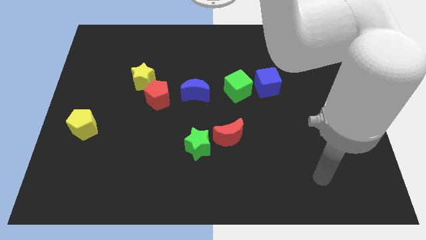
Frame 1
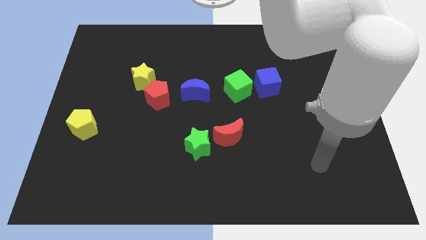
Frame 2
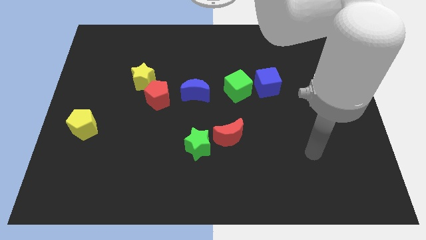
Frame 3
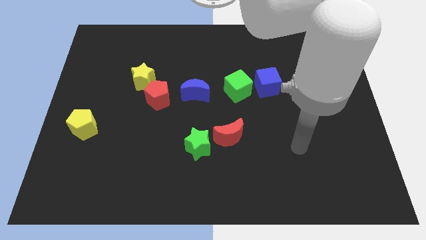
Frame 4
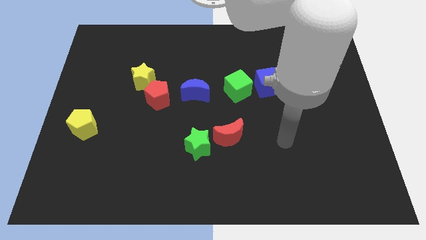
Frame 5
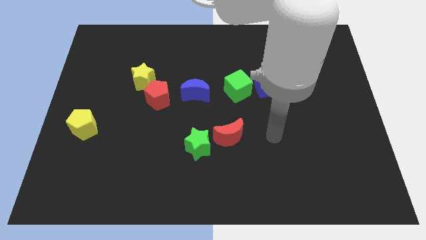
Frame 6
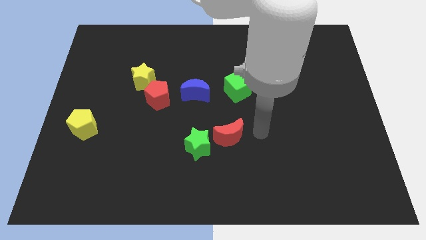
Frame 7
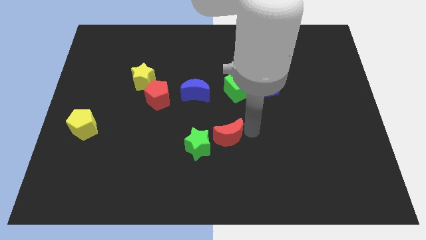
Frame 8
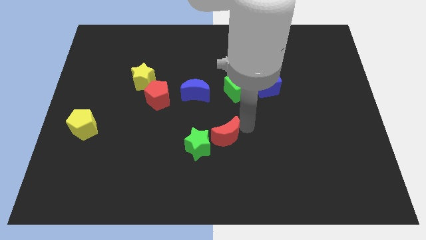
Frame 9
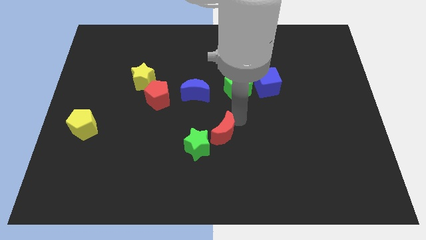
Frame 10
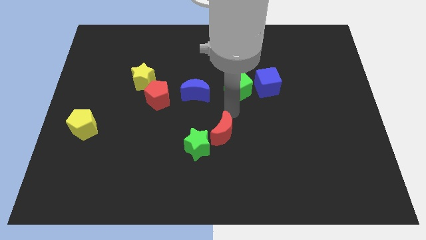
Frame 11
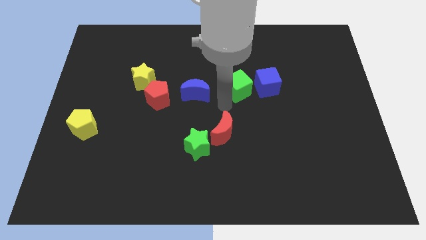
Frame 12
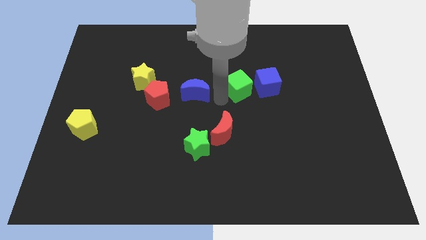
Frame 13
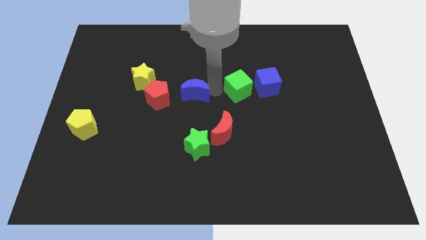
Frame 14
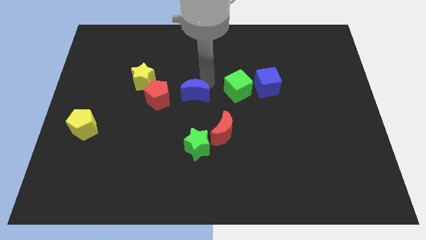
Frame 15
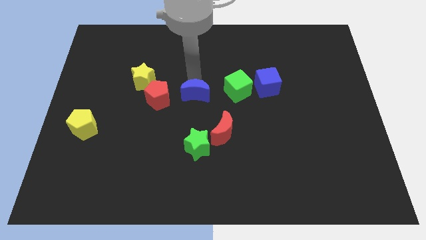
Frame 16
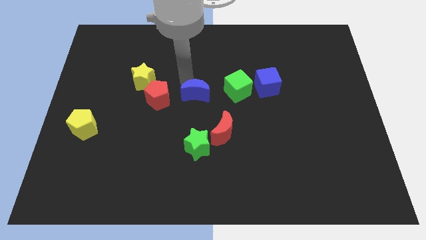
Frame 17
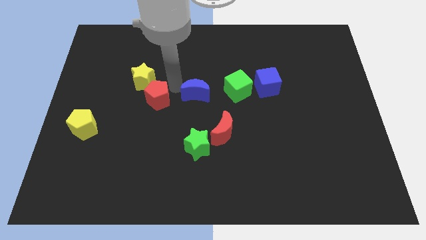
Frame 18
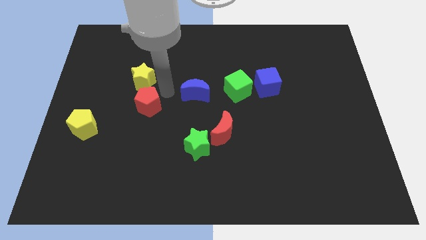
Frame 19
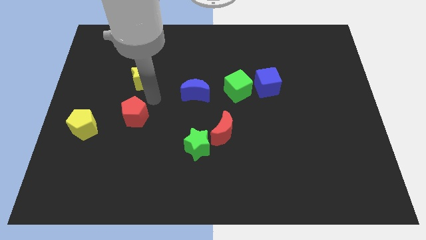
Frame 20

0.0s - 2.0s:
separate the yellow star from the red pentagon

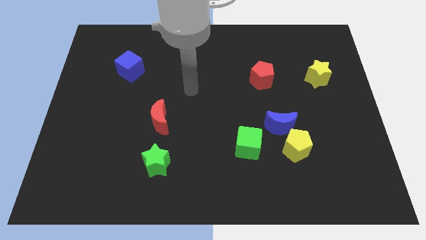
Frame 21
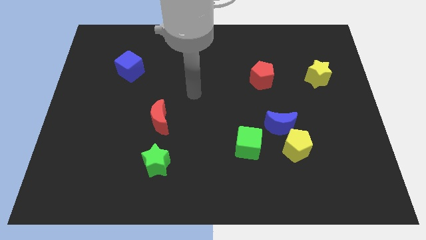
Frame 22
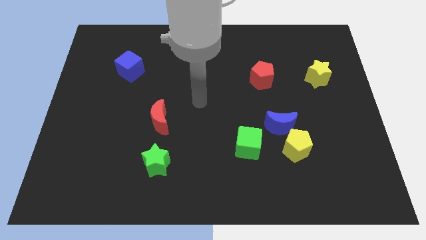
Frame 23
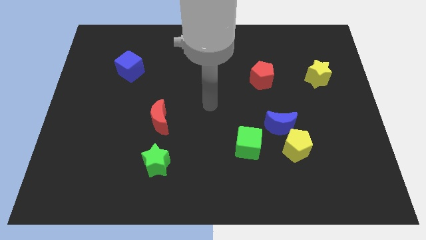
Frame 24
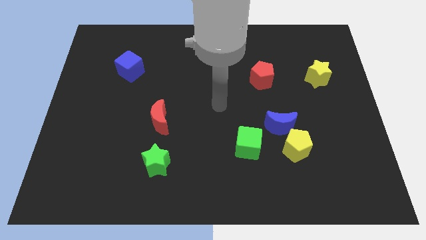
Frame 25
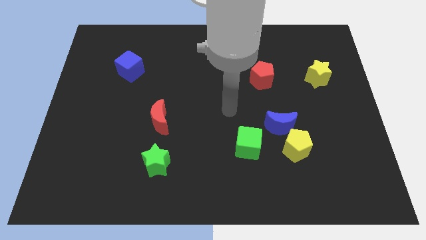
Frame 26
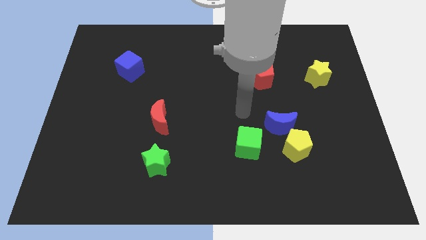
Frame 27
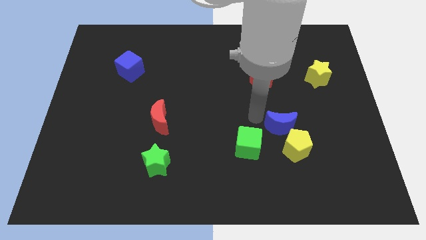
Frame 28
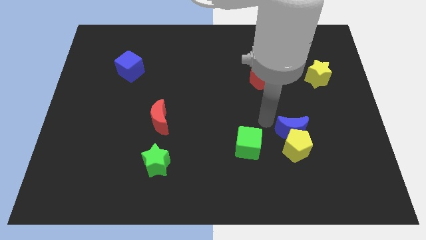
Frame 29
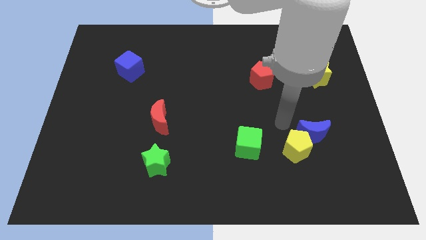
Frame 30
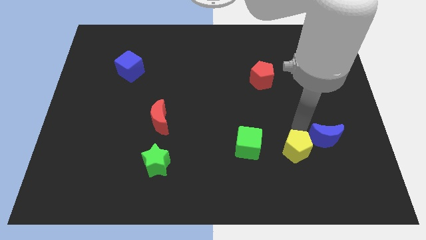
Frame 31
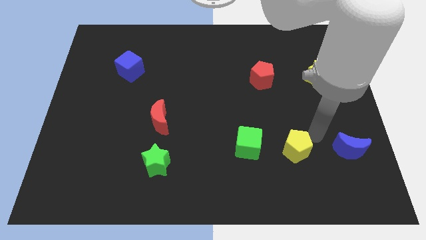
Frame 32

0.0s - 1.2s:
move the yellow pentagon away from the blue moon

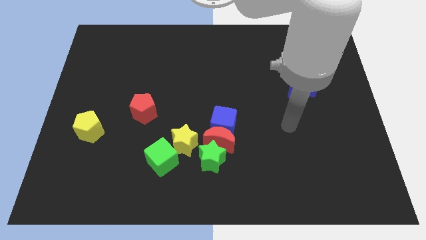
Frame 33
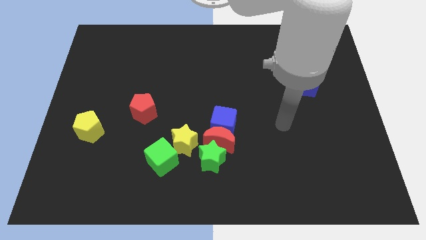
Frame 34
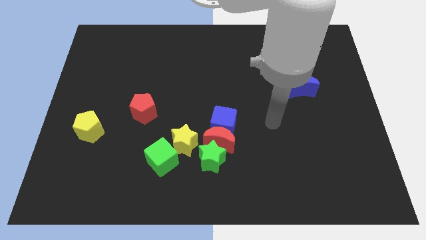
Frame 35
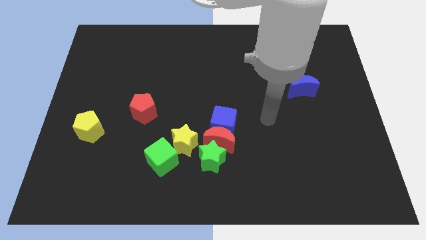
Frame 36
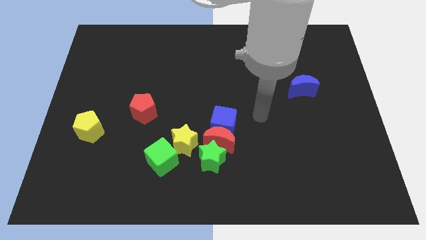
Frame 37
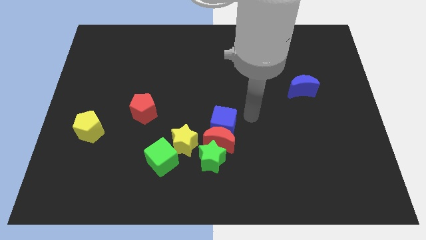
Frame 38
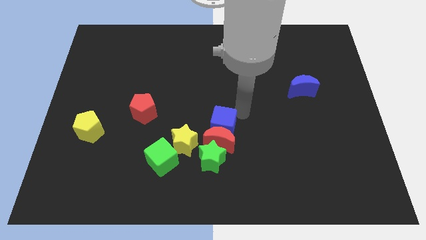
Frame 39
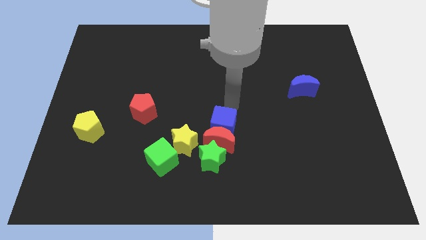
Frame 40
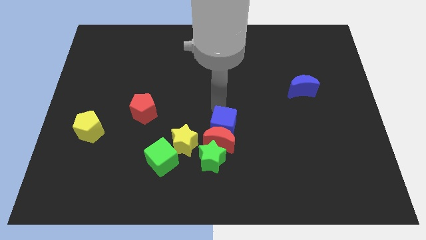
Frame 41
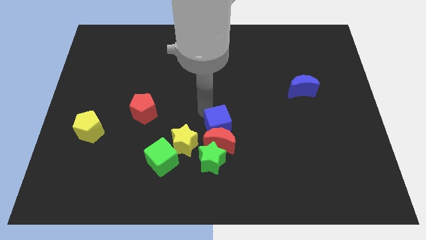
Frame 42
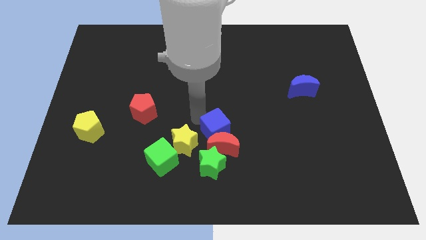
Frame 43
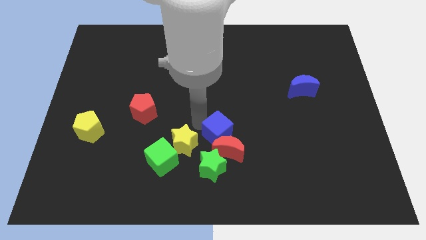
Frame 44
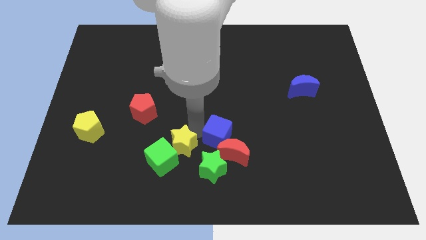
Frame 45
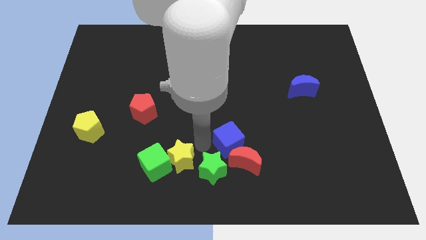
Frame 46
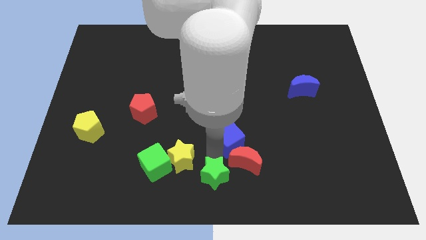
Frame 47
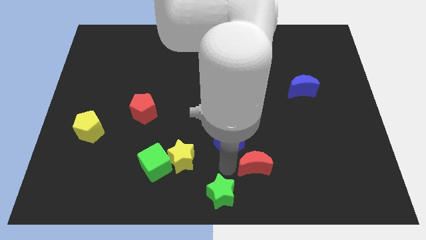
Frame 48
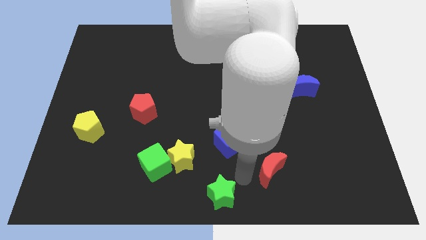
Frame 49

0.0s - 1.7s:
pull the red moon apart from the blue cube, green star, and yellow star

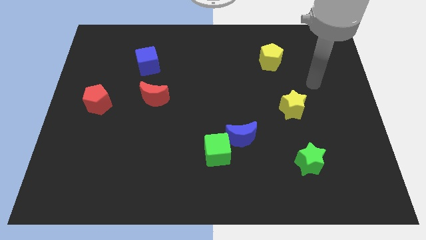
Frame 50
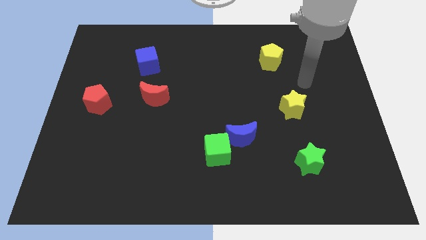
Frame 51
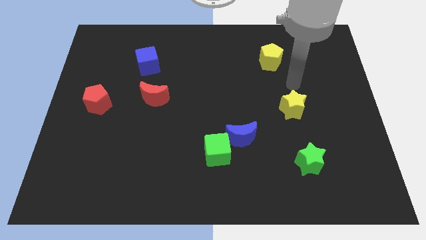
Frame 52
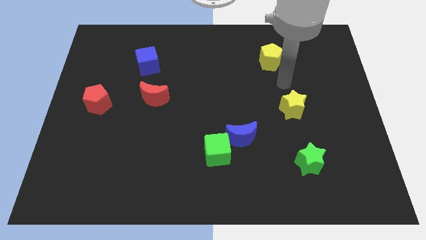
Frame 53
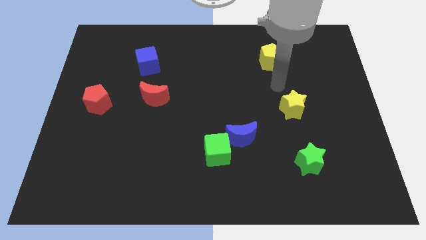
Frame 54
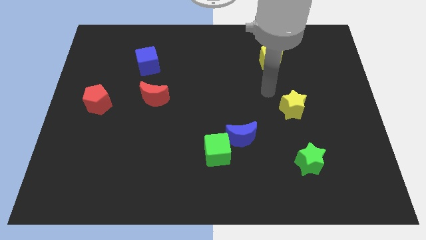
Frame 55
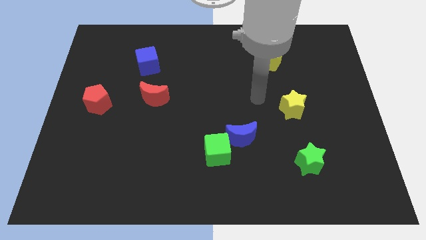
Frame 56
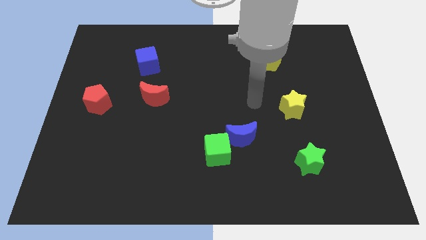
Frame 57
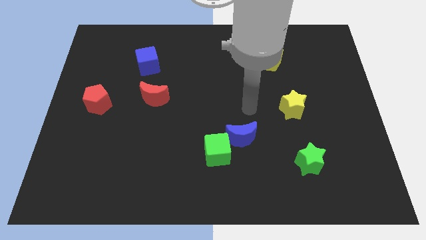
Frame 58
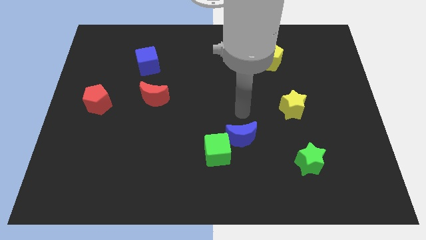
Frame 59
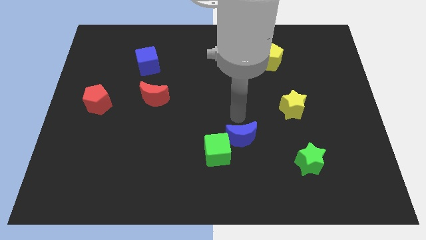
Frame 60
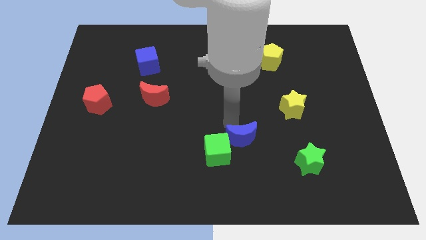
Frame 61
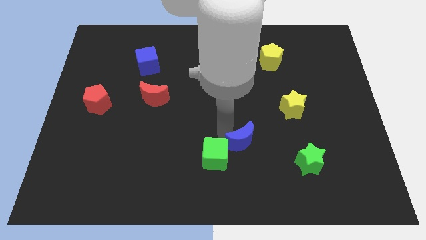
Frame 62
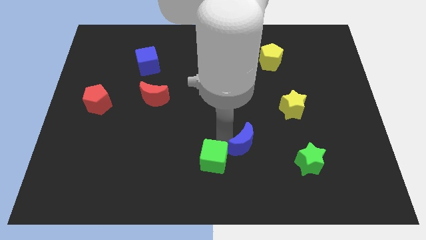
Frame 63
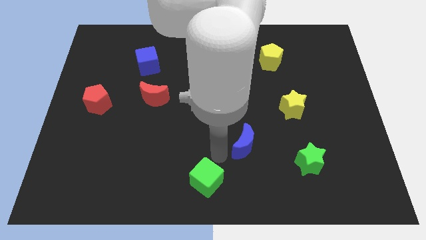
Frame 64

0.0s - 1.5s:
pull the blue moon apart from the green cube

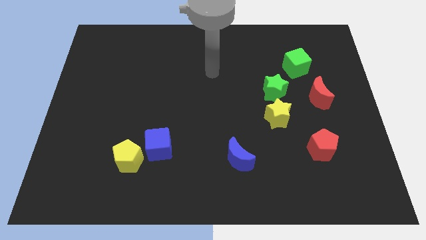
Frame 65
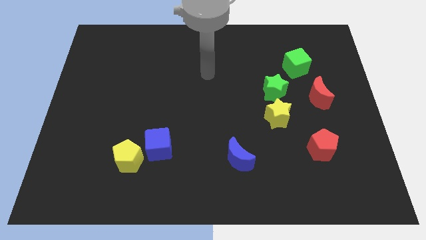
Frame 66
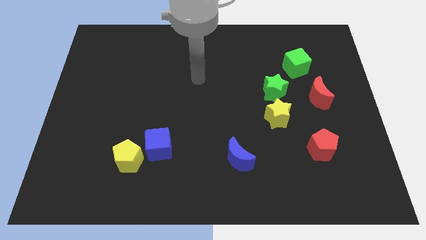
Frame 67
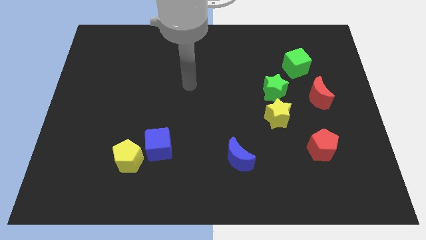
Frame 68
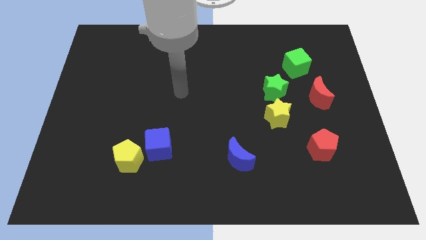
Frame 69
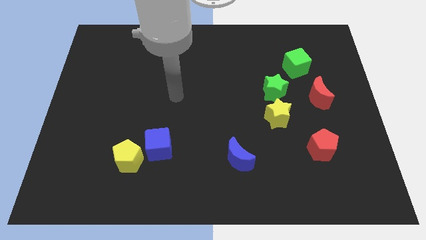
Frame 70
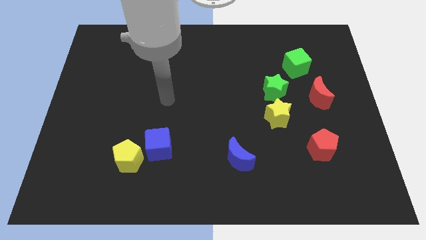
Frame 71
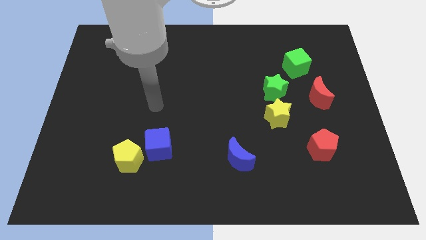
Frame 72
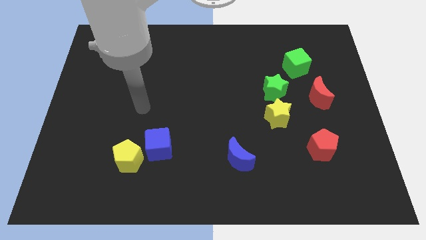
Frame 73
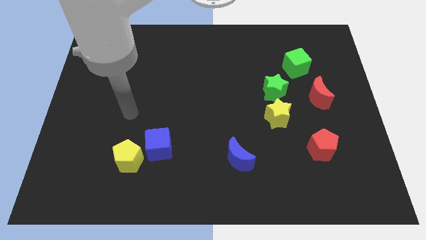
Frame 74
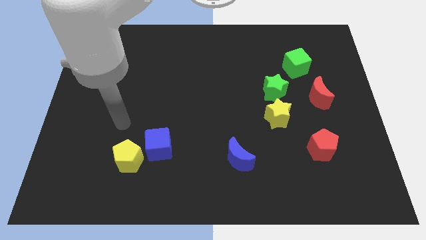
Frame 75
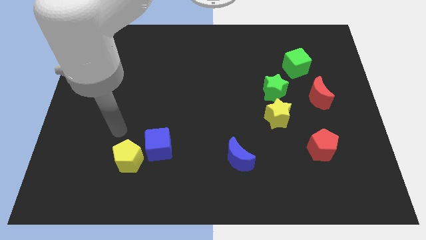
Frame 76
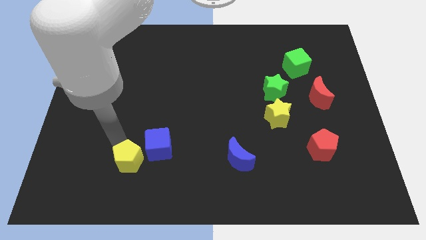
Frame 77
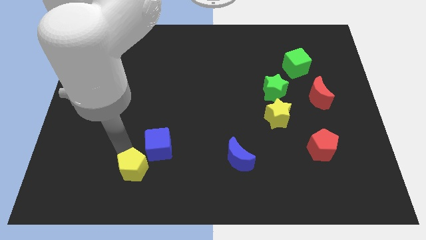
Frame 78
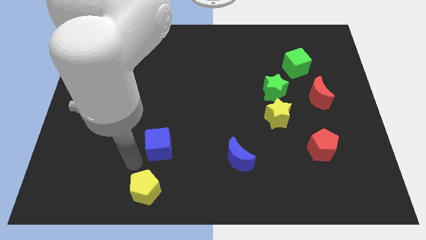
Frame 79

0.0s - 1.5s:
separate the blue cube from the yellow pentagon

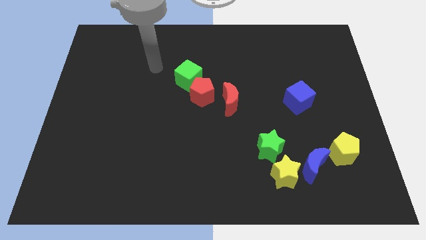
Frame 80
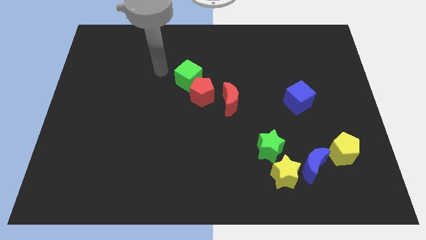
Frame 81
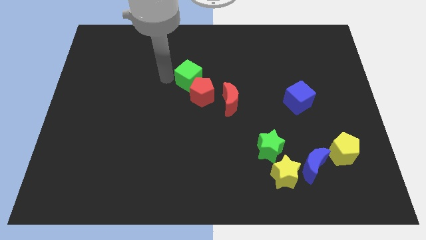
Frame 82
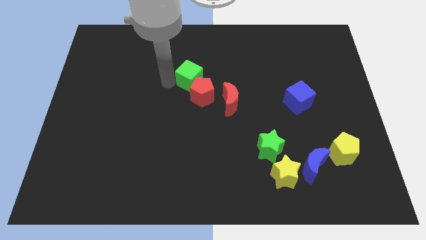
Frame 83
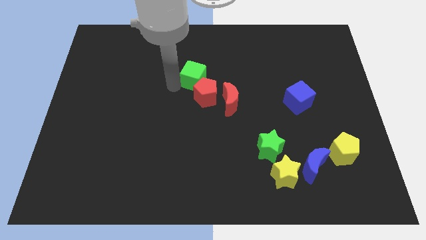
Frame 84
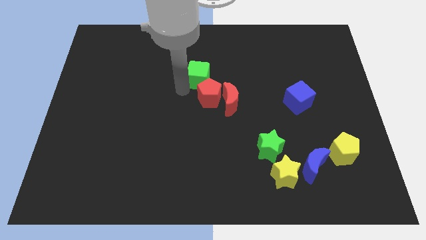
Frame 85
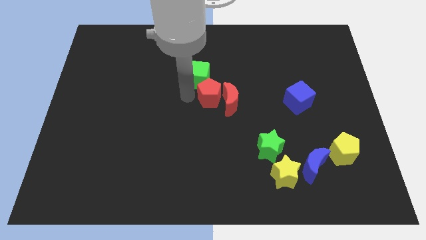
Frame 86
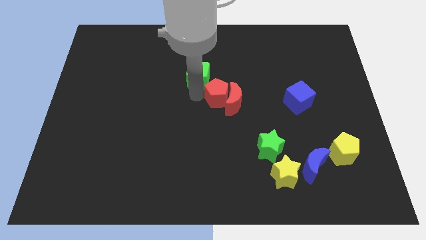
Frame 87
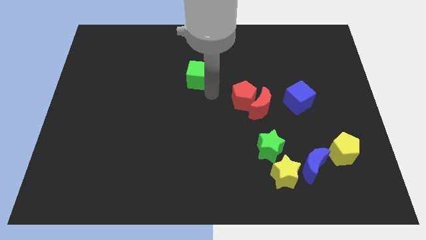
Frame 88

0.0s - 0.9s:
move the green cube away from the red pentagon

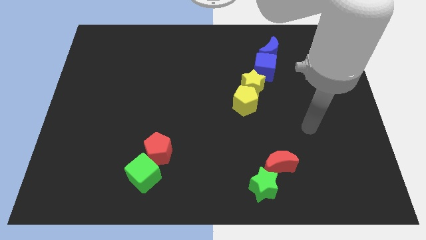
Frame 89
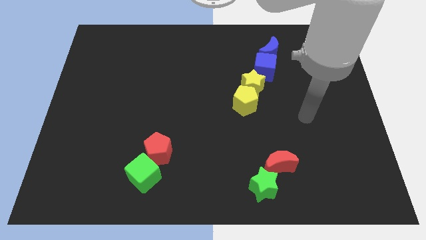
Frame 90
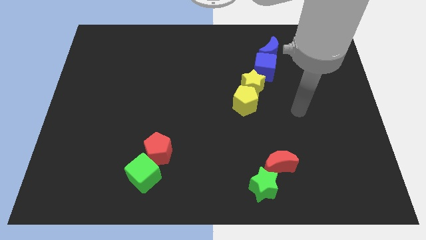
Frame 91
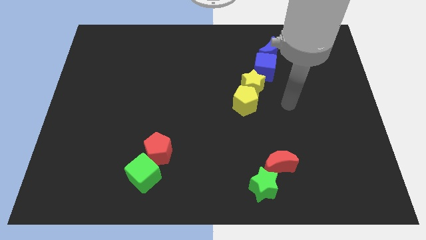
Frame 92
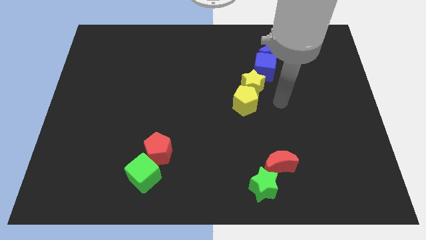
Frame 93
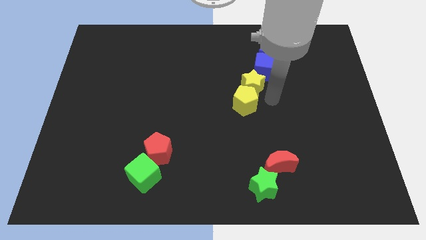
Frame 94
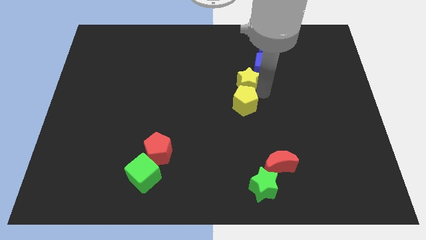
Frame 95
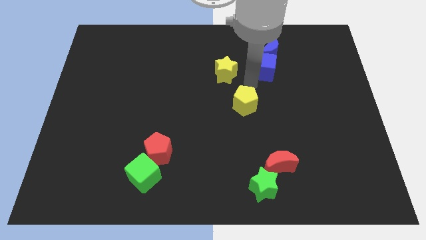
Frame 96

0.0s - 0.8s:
separate the yellow pentagon from the yellow star
